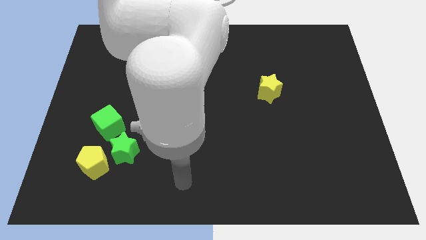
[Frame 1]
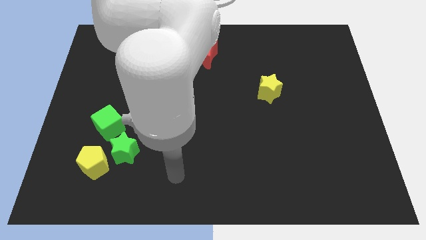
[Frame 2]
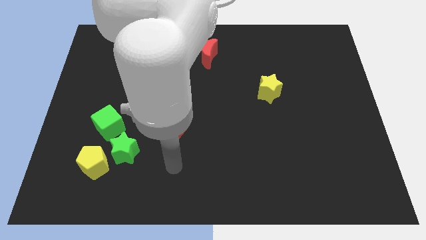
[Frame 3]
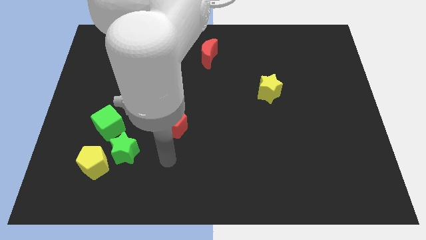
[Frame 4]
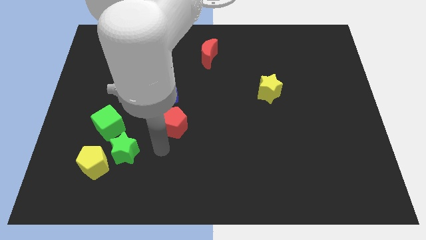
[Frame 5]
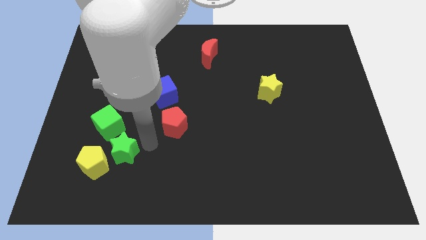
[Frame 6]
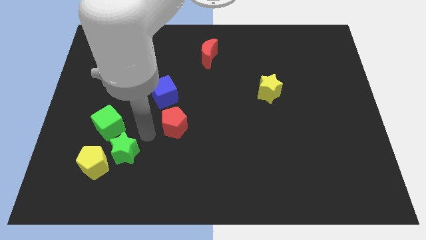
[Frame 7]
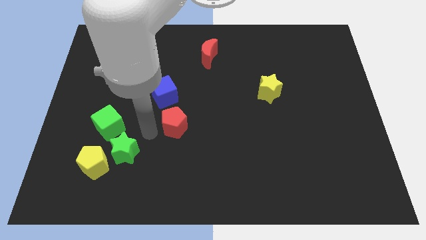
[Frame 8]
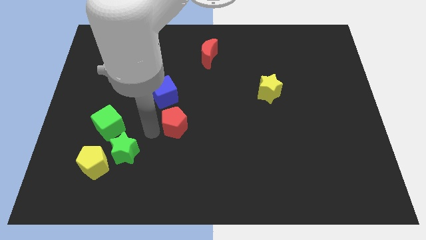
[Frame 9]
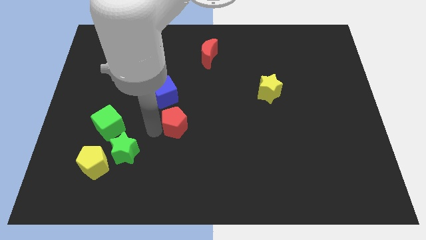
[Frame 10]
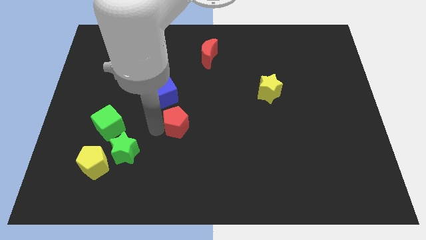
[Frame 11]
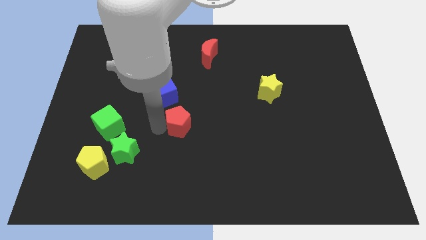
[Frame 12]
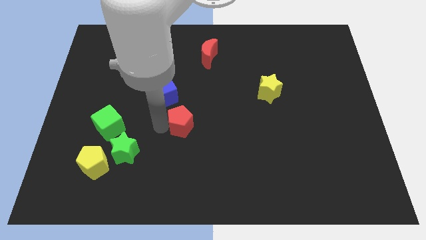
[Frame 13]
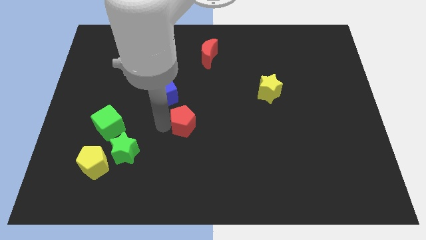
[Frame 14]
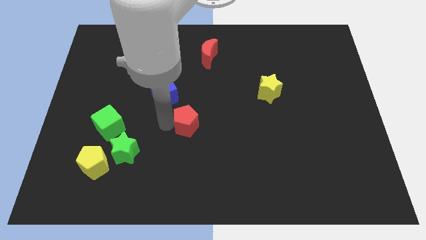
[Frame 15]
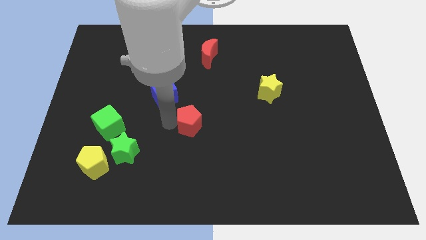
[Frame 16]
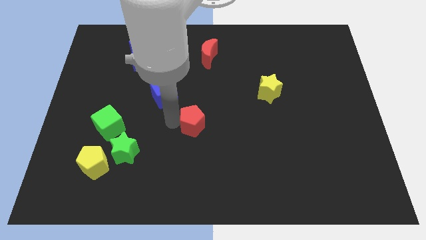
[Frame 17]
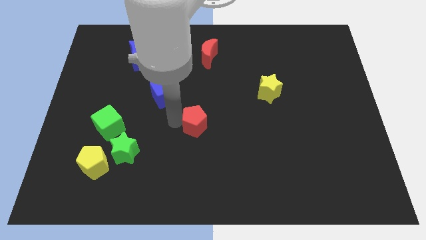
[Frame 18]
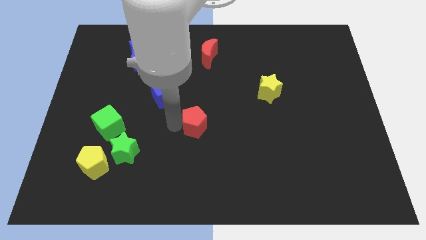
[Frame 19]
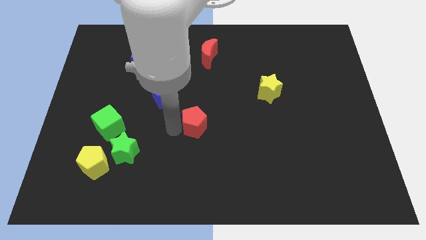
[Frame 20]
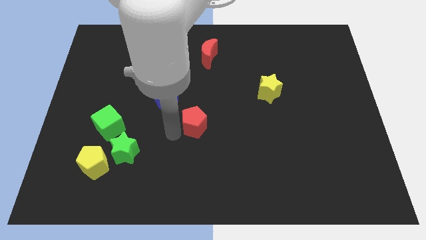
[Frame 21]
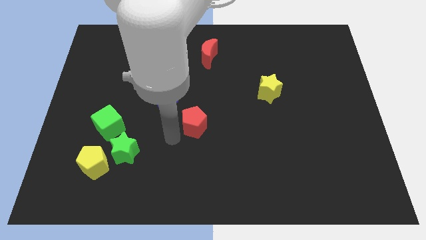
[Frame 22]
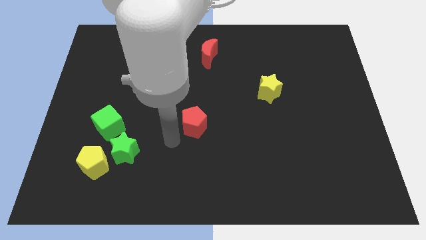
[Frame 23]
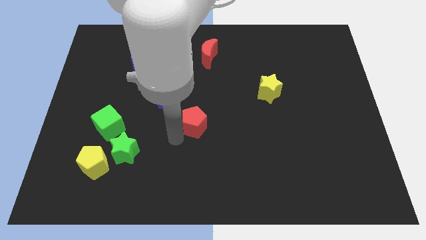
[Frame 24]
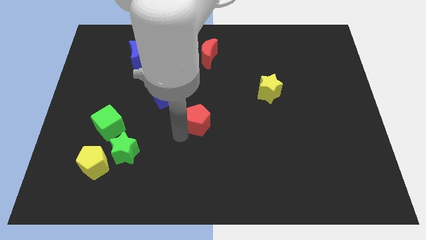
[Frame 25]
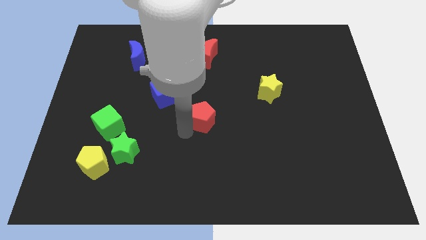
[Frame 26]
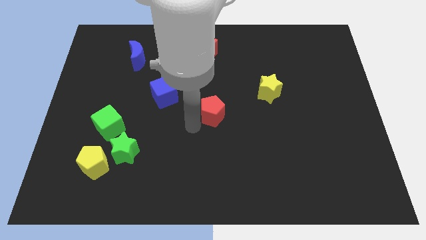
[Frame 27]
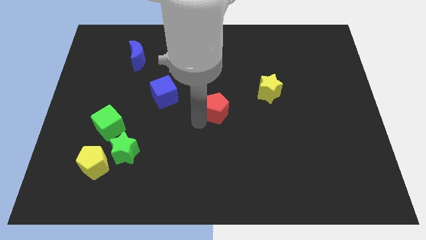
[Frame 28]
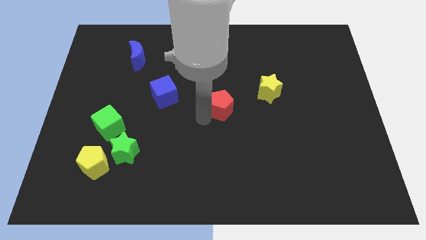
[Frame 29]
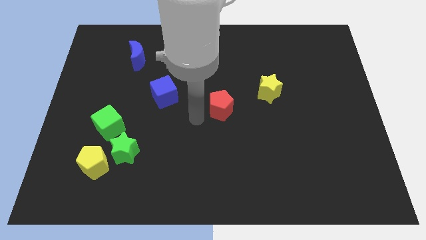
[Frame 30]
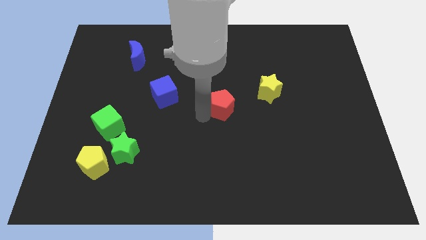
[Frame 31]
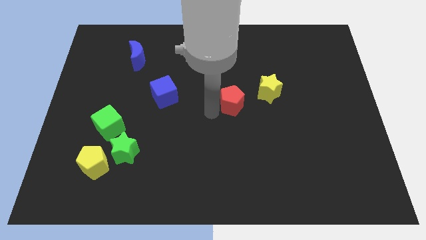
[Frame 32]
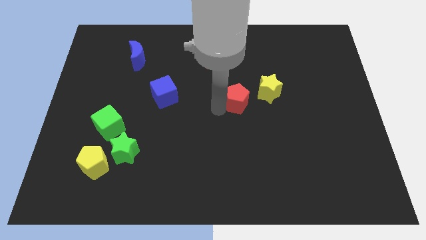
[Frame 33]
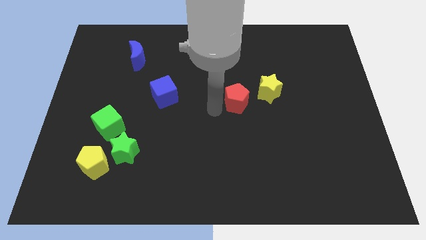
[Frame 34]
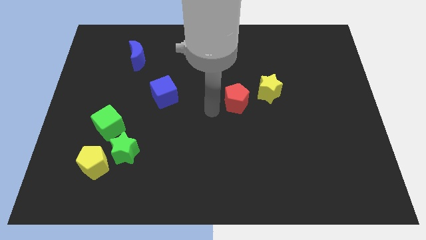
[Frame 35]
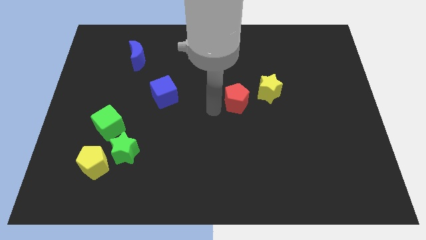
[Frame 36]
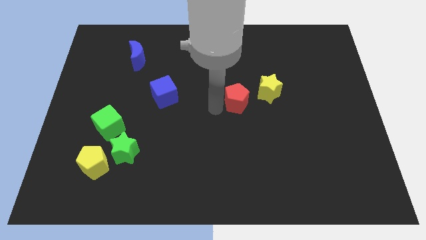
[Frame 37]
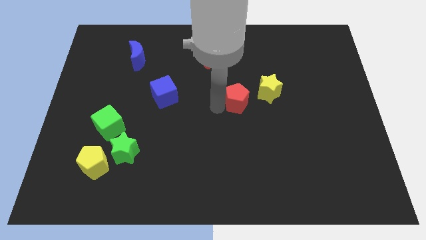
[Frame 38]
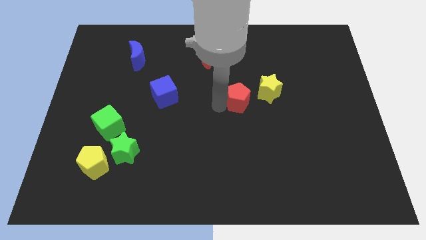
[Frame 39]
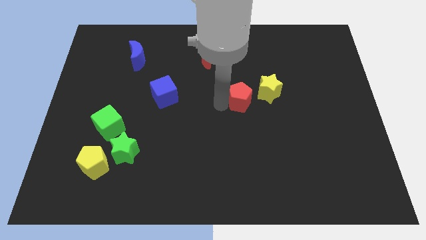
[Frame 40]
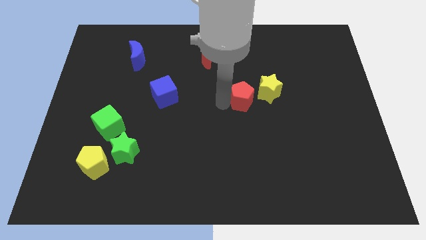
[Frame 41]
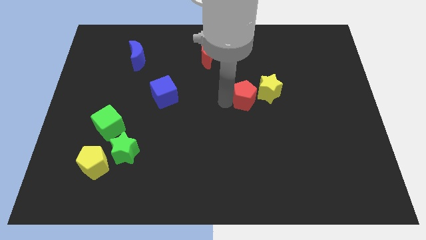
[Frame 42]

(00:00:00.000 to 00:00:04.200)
slide the red pentagon next to the yellow star

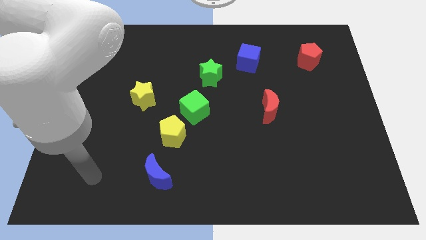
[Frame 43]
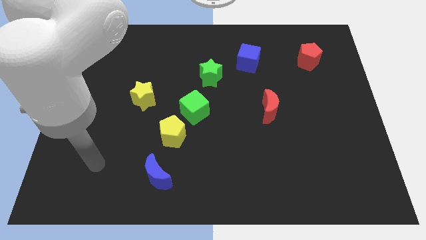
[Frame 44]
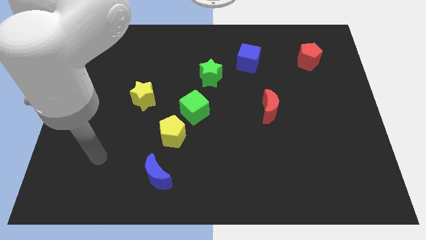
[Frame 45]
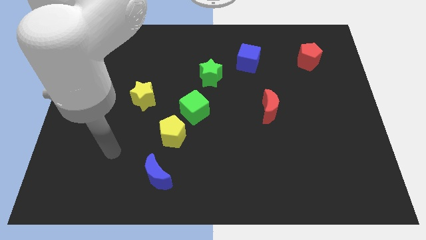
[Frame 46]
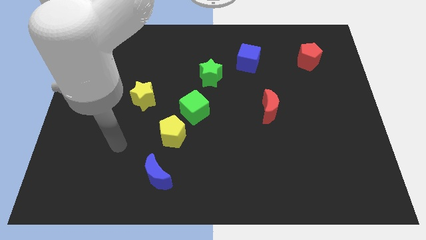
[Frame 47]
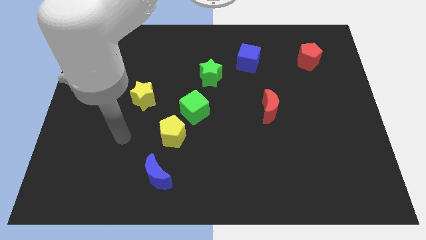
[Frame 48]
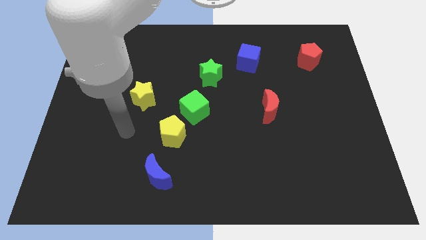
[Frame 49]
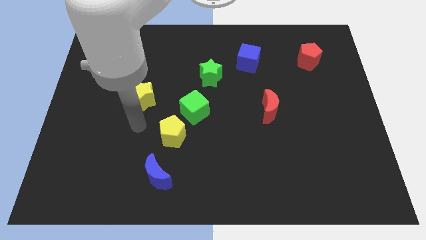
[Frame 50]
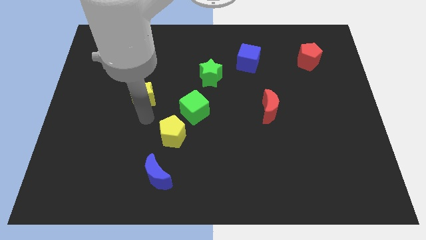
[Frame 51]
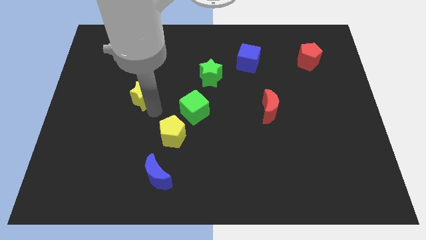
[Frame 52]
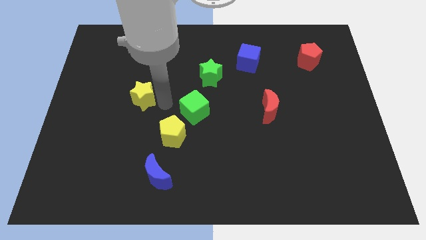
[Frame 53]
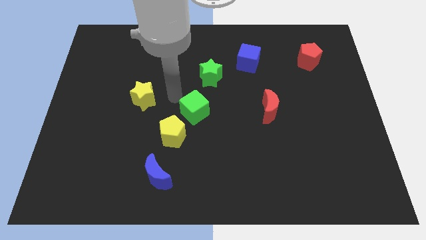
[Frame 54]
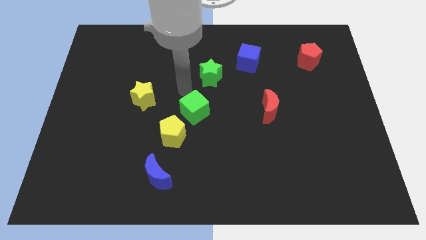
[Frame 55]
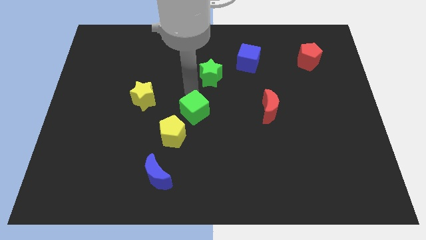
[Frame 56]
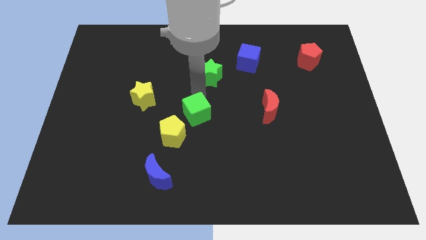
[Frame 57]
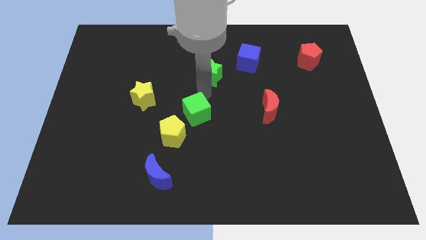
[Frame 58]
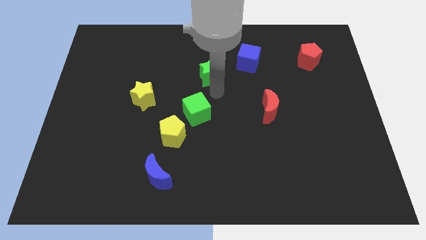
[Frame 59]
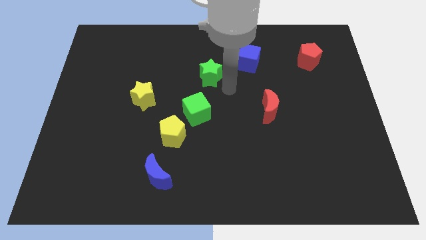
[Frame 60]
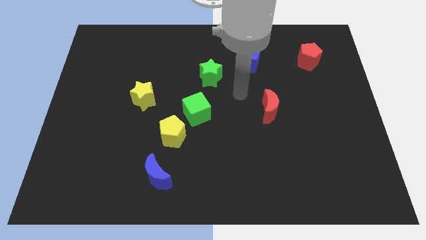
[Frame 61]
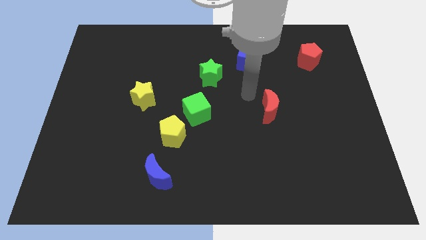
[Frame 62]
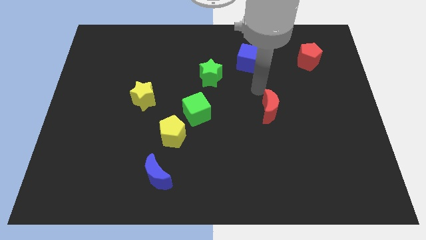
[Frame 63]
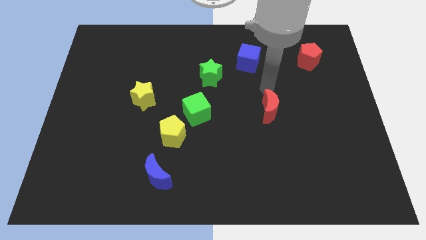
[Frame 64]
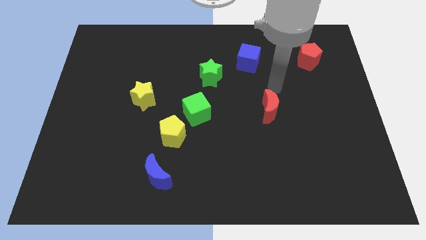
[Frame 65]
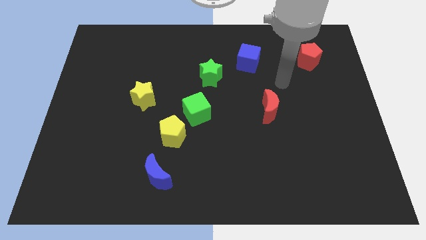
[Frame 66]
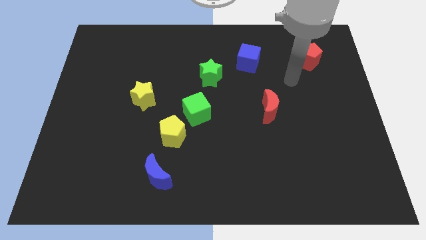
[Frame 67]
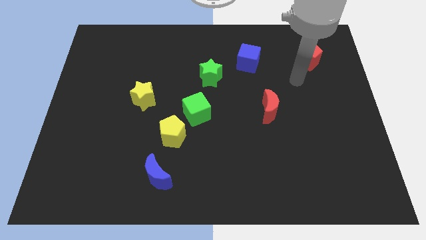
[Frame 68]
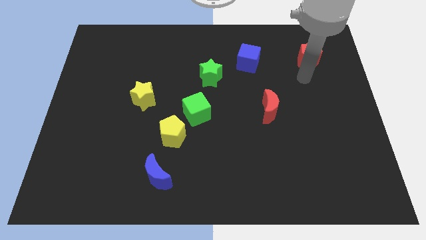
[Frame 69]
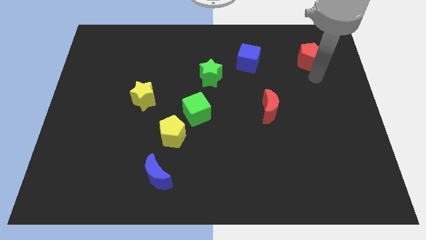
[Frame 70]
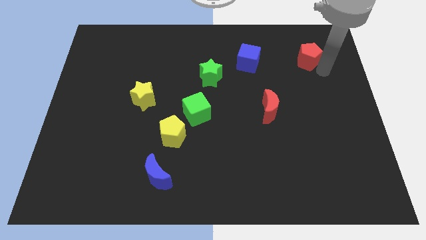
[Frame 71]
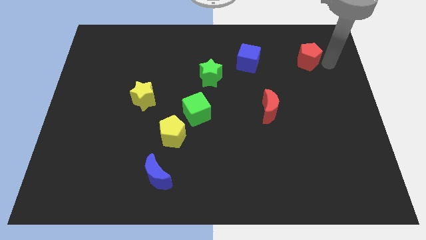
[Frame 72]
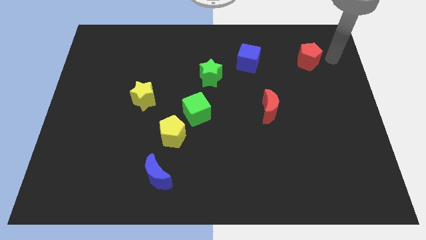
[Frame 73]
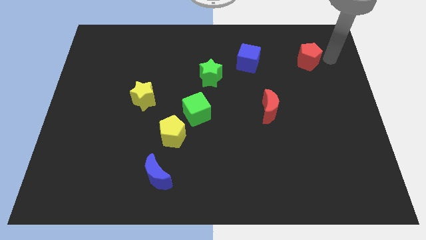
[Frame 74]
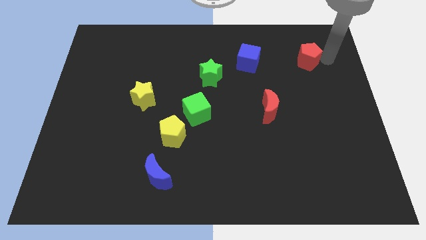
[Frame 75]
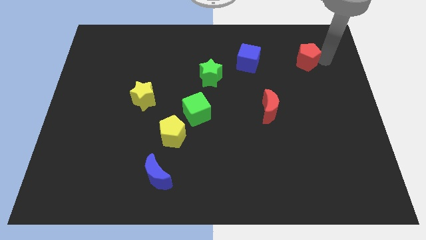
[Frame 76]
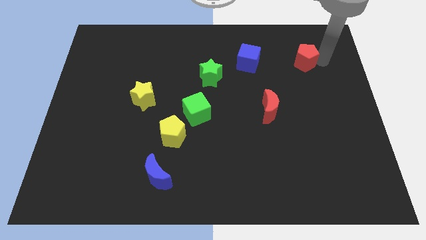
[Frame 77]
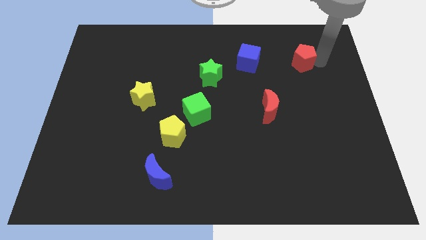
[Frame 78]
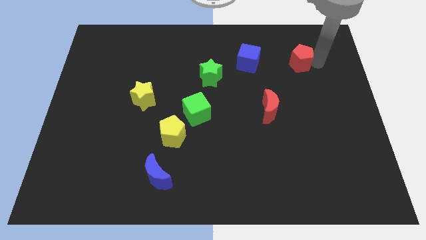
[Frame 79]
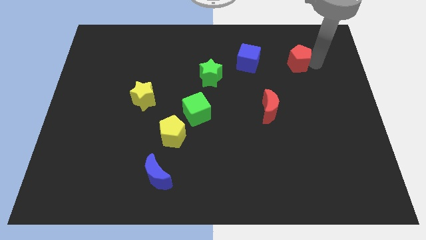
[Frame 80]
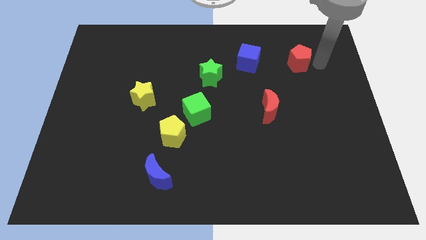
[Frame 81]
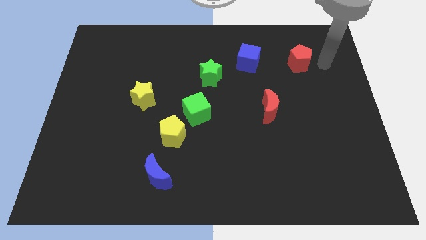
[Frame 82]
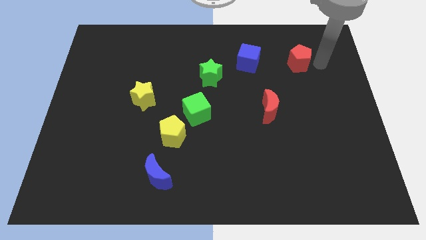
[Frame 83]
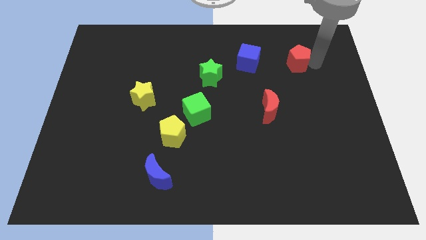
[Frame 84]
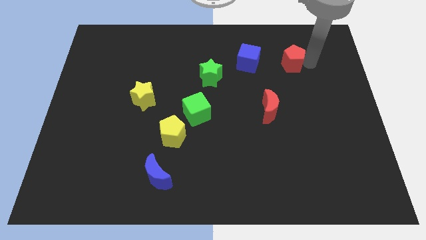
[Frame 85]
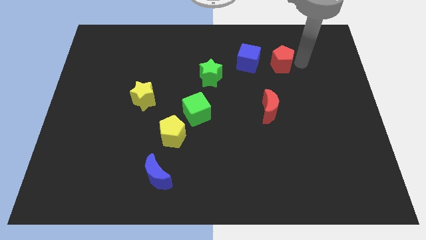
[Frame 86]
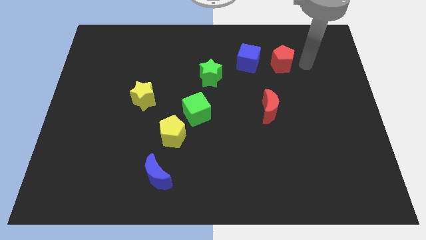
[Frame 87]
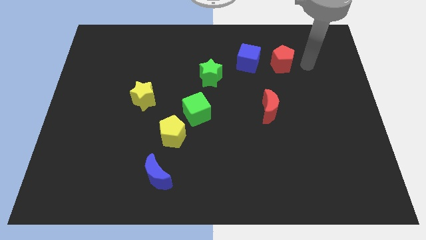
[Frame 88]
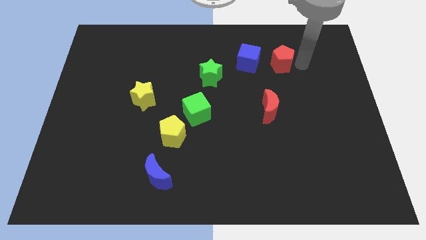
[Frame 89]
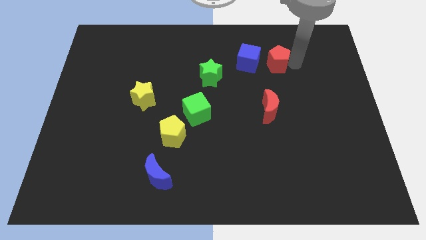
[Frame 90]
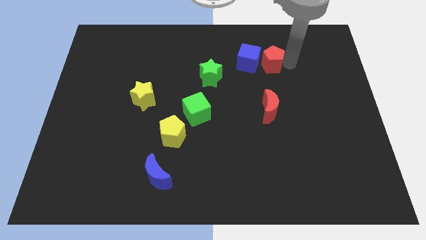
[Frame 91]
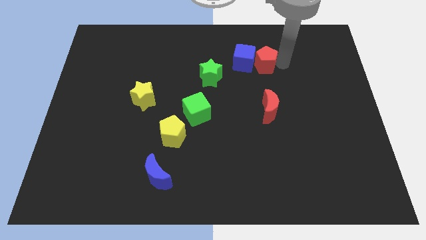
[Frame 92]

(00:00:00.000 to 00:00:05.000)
slide the red pentagon next to the blue cube
